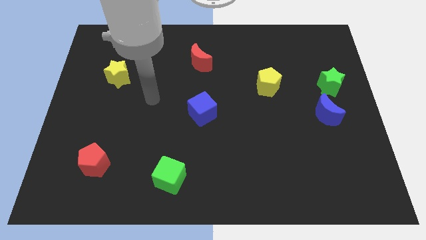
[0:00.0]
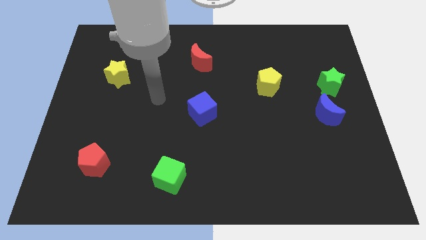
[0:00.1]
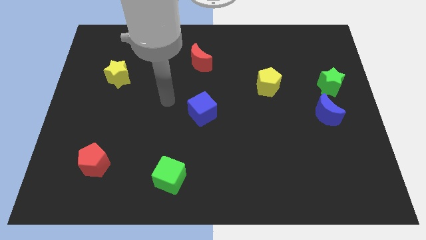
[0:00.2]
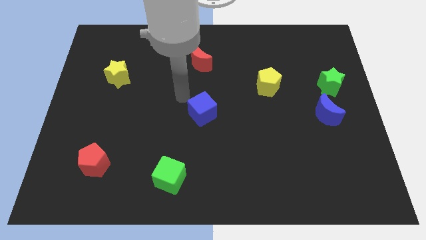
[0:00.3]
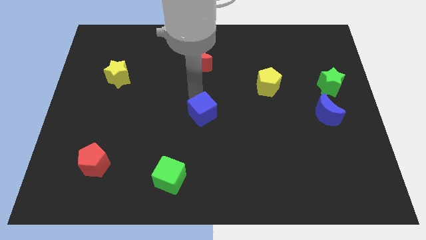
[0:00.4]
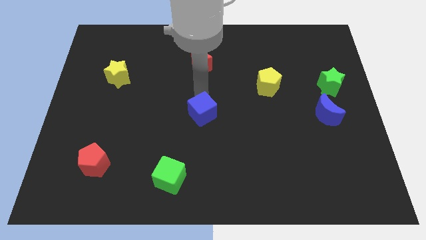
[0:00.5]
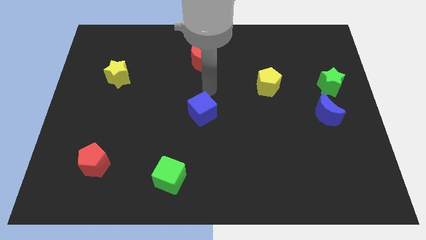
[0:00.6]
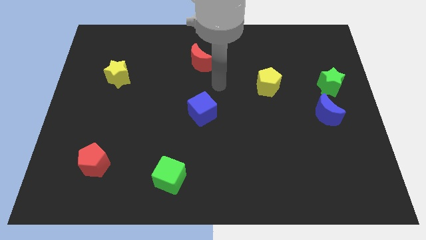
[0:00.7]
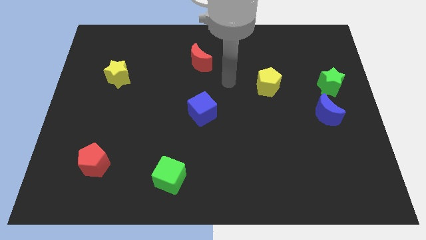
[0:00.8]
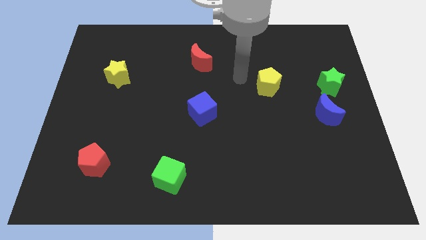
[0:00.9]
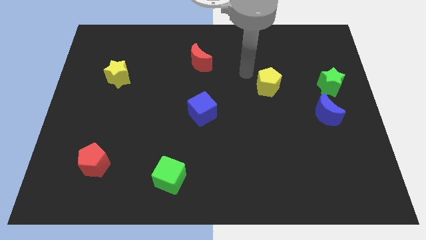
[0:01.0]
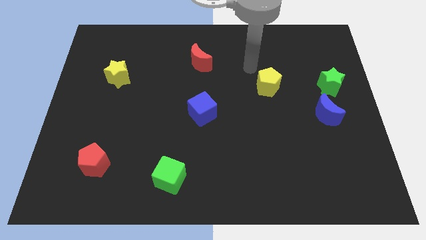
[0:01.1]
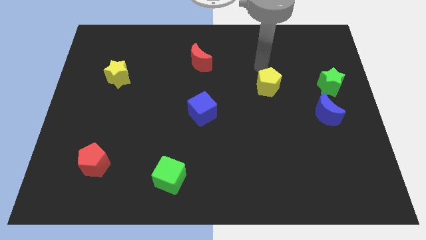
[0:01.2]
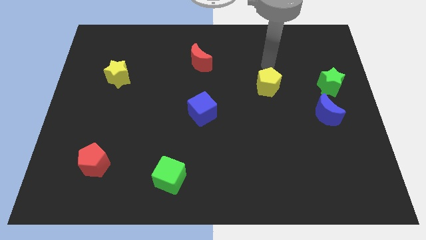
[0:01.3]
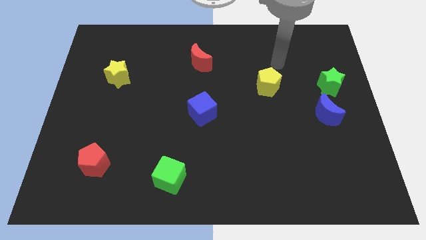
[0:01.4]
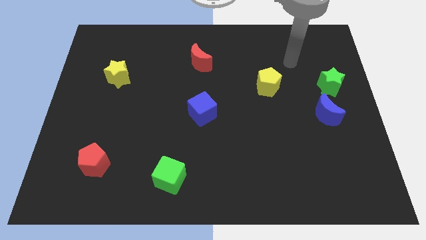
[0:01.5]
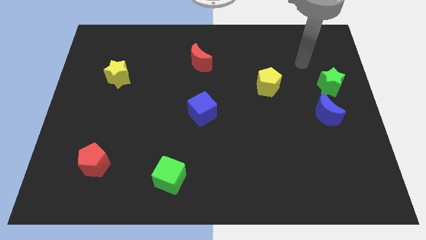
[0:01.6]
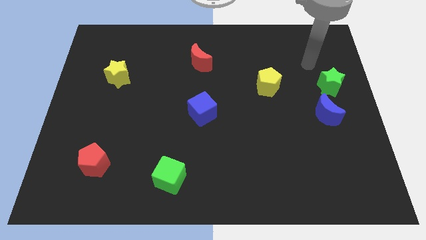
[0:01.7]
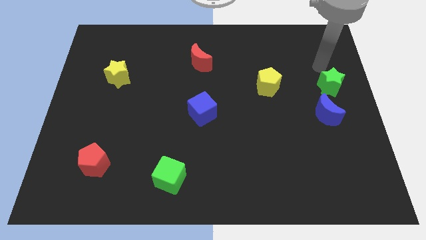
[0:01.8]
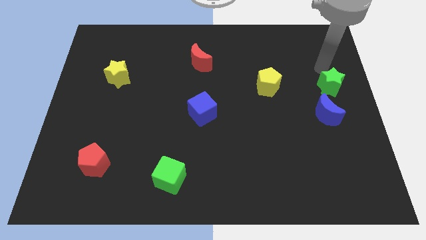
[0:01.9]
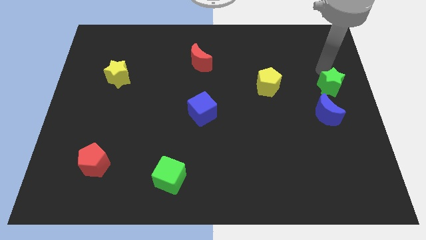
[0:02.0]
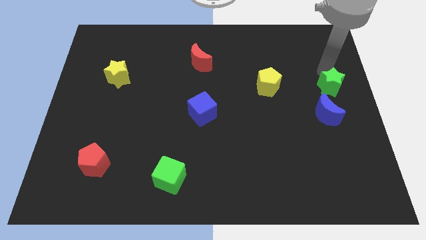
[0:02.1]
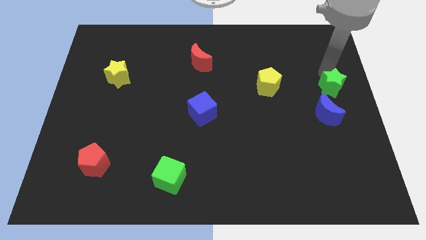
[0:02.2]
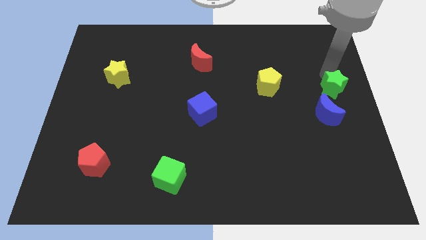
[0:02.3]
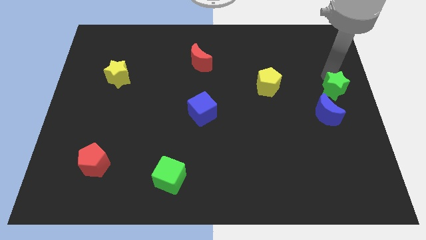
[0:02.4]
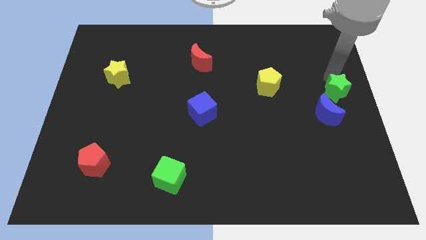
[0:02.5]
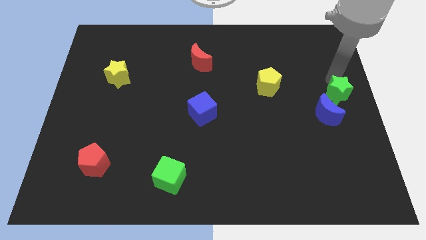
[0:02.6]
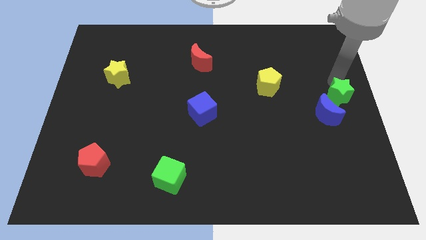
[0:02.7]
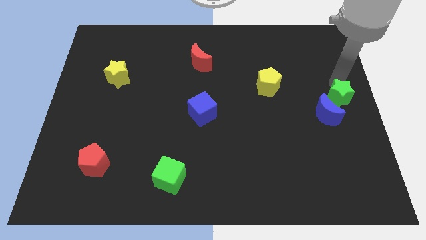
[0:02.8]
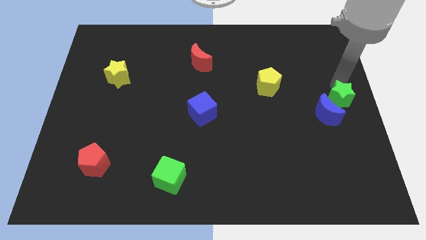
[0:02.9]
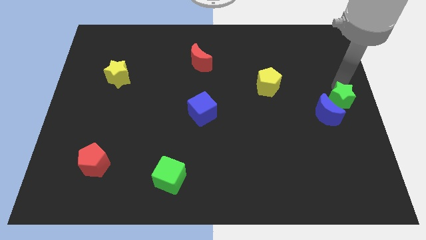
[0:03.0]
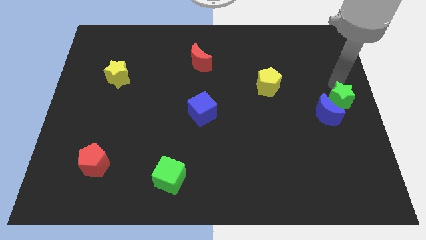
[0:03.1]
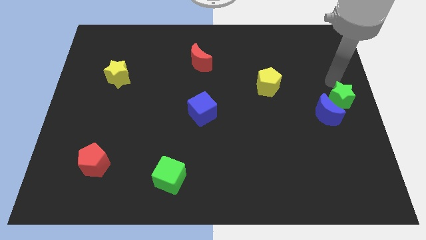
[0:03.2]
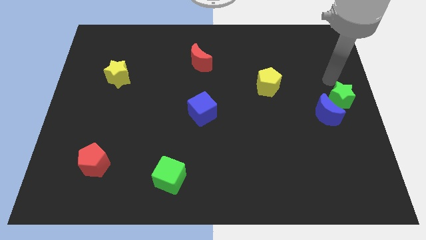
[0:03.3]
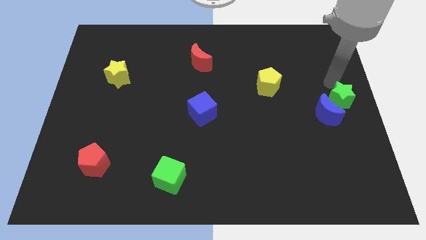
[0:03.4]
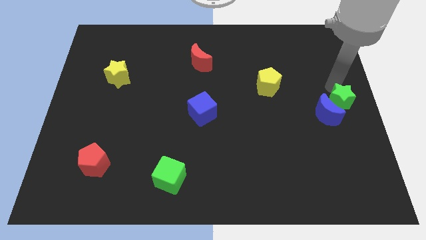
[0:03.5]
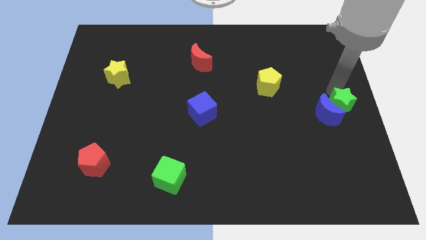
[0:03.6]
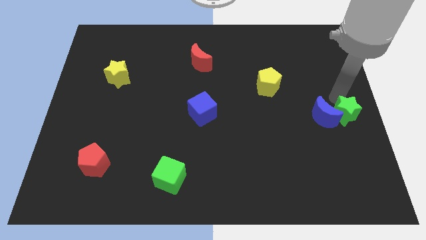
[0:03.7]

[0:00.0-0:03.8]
slide the green star down a bit

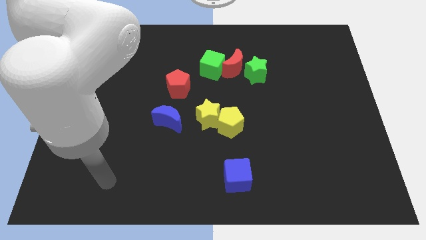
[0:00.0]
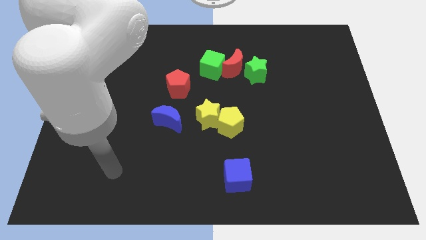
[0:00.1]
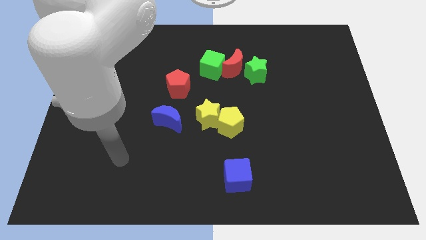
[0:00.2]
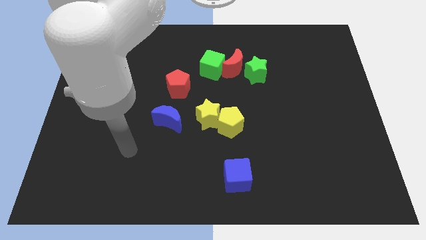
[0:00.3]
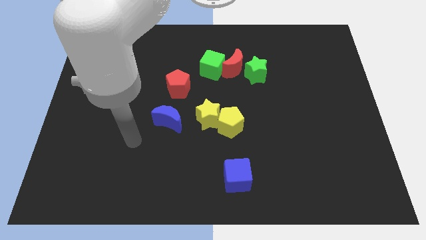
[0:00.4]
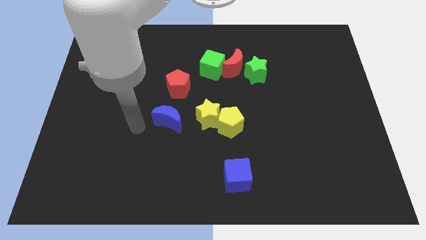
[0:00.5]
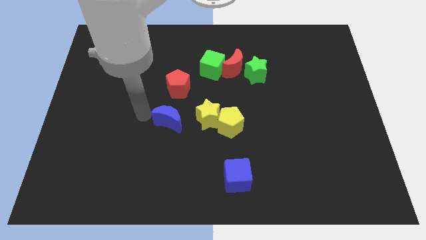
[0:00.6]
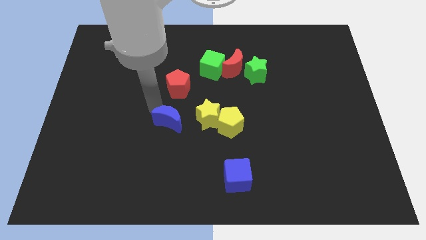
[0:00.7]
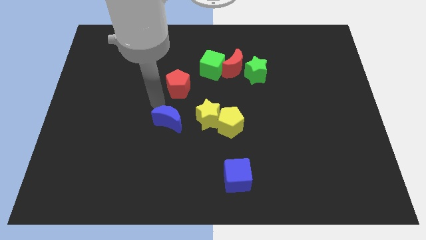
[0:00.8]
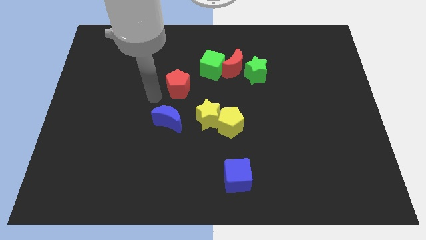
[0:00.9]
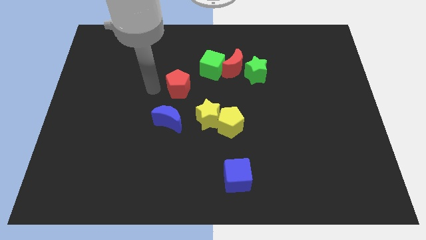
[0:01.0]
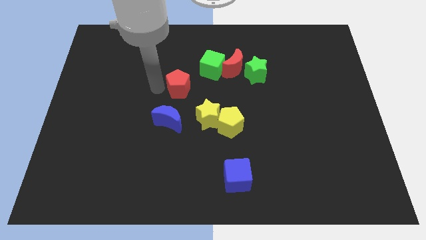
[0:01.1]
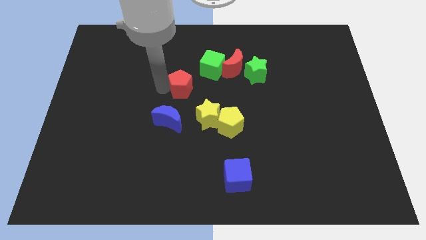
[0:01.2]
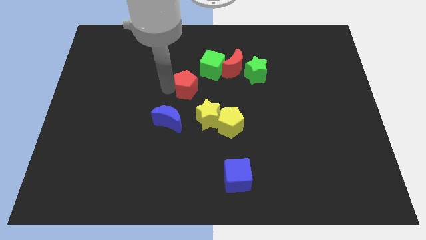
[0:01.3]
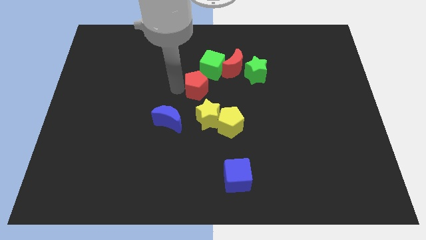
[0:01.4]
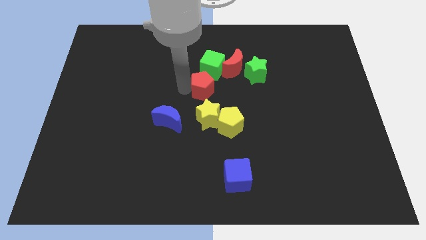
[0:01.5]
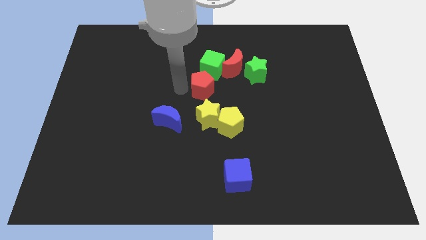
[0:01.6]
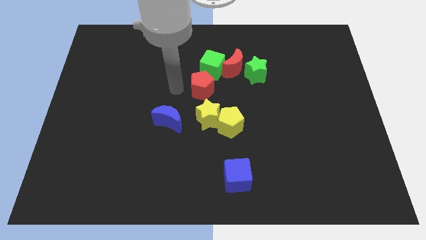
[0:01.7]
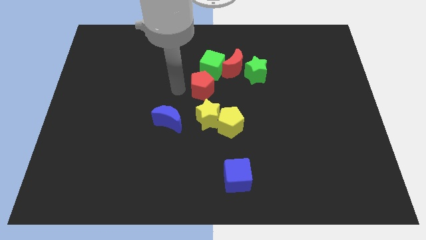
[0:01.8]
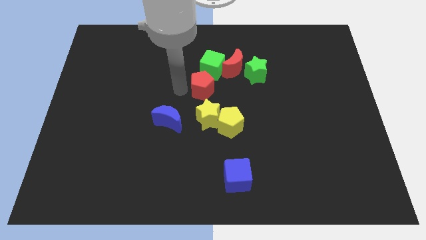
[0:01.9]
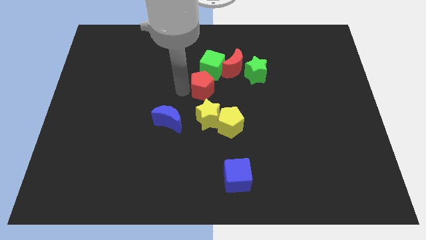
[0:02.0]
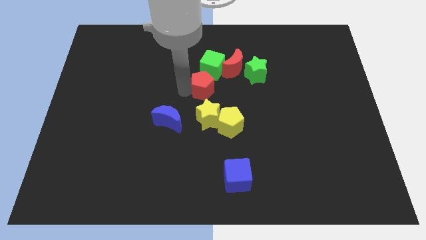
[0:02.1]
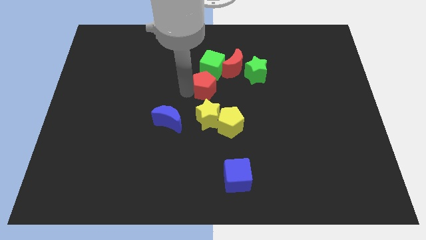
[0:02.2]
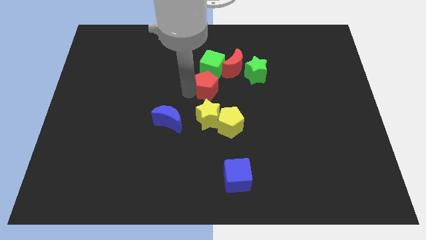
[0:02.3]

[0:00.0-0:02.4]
move the red pentagon to the right slightly

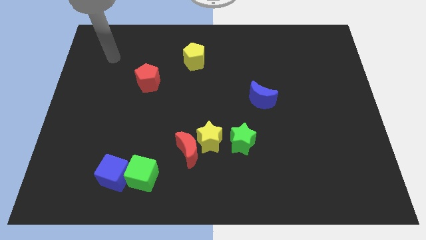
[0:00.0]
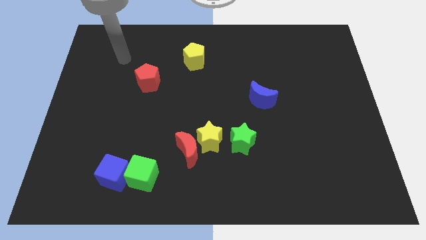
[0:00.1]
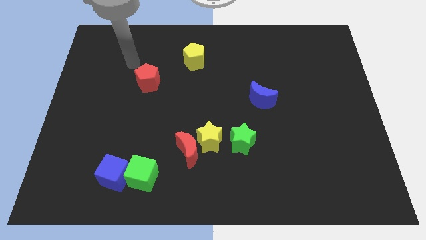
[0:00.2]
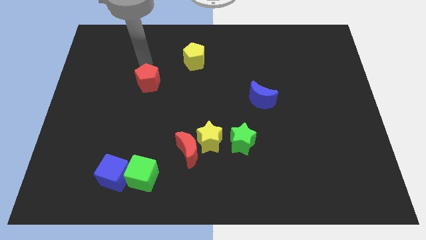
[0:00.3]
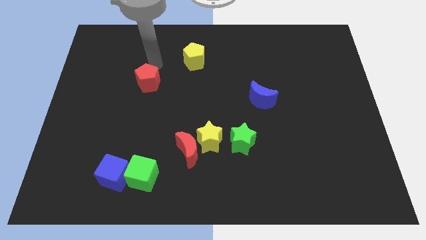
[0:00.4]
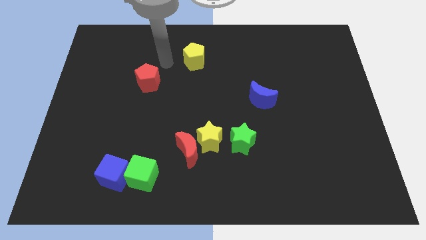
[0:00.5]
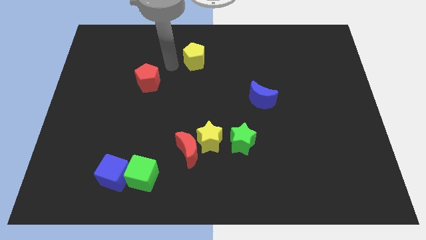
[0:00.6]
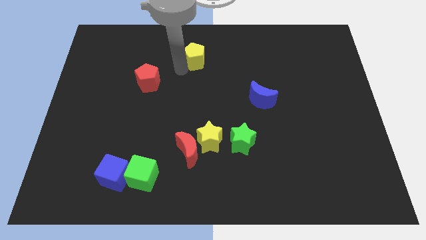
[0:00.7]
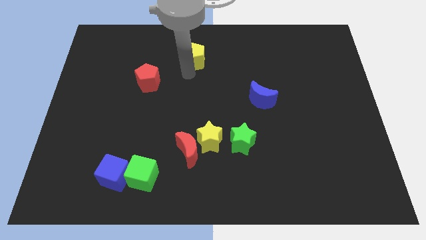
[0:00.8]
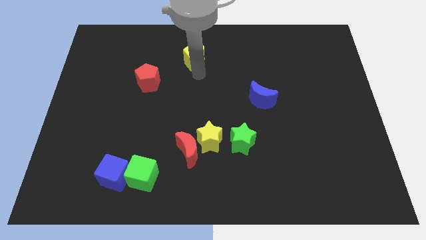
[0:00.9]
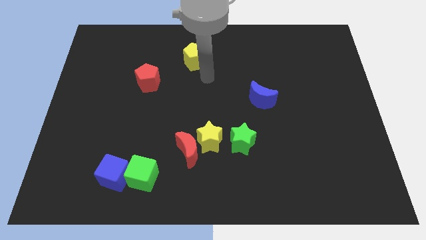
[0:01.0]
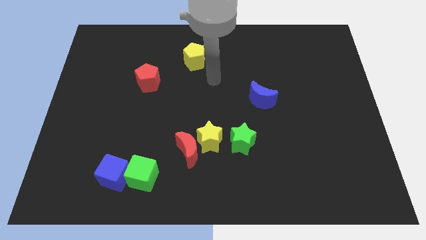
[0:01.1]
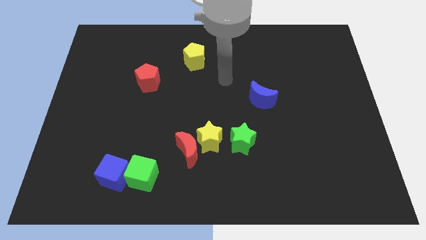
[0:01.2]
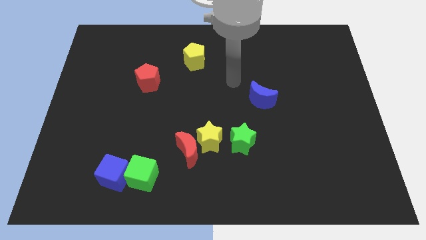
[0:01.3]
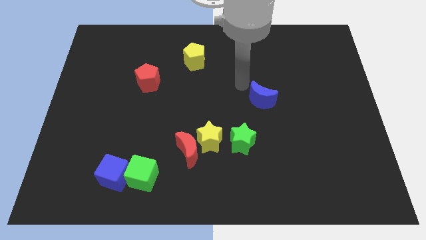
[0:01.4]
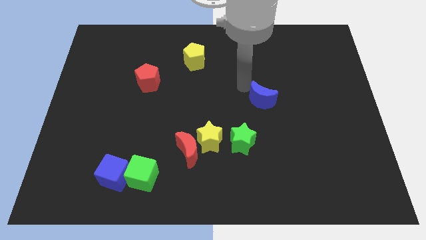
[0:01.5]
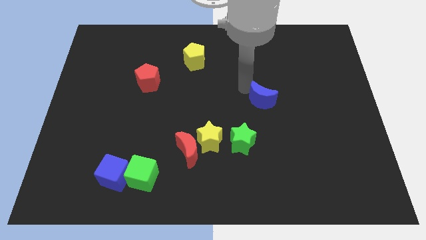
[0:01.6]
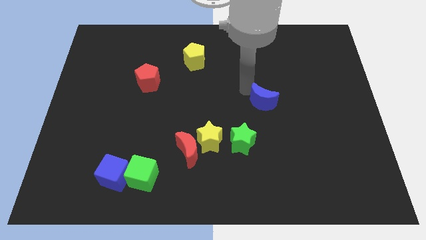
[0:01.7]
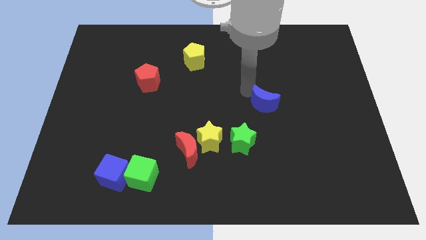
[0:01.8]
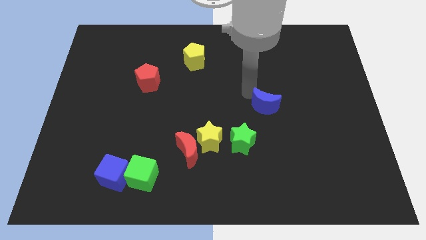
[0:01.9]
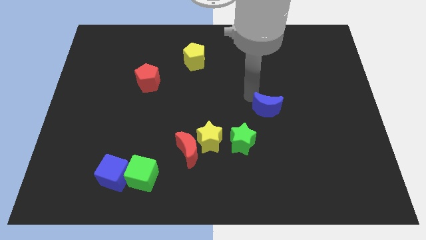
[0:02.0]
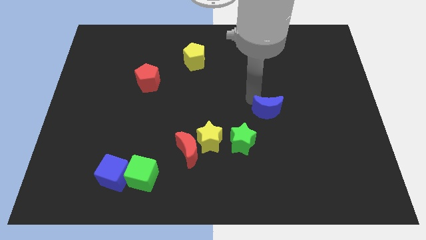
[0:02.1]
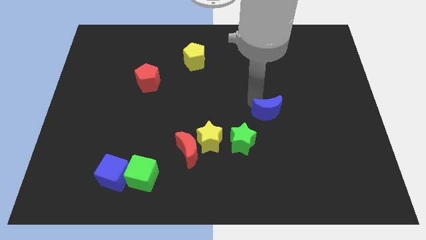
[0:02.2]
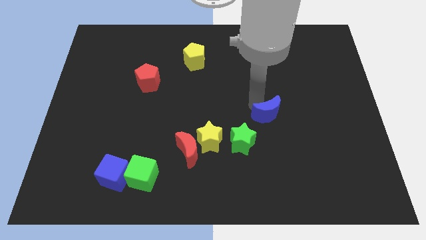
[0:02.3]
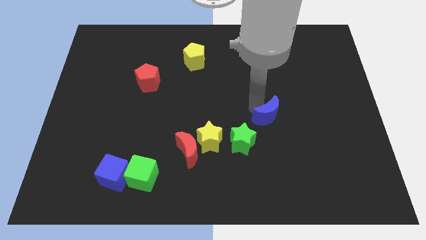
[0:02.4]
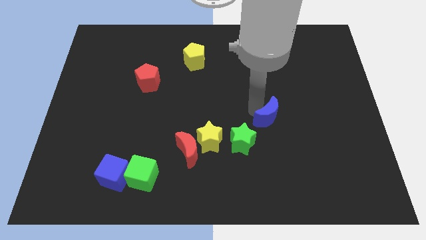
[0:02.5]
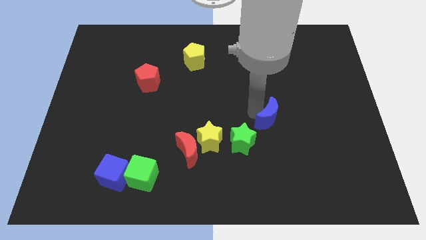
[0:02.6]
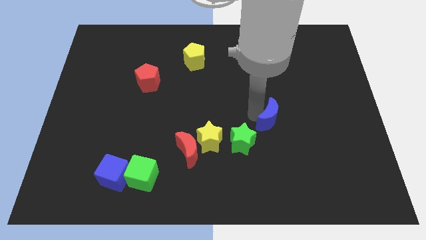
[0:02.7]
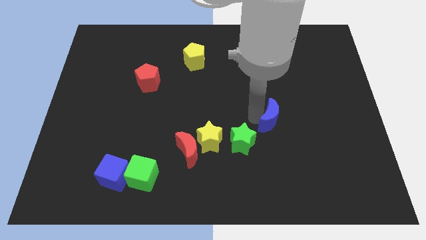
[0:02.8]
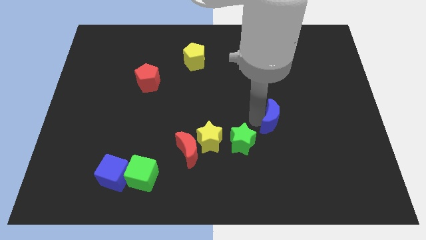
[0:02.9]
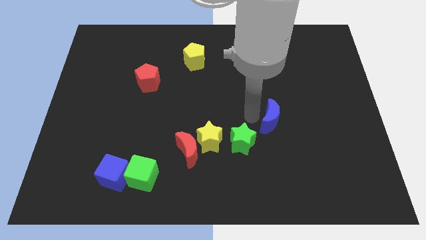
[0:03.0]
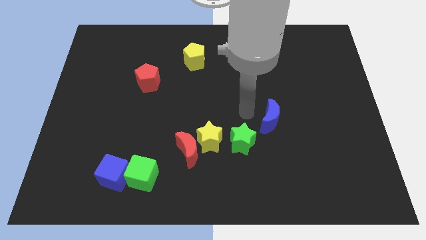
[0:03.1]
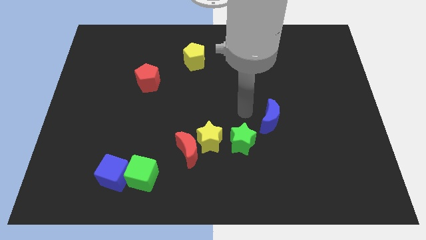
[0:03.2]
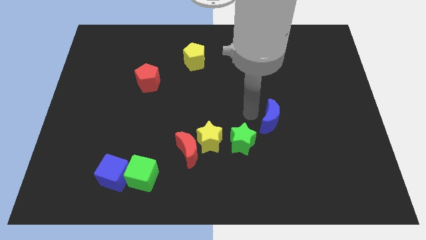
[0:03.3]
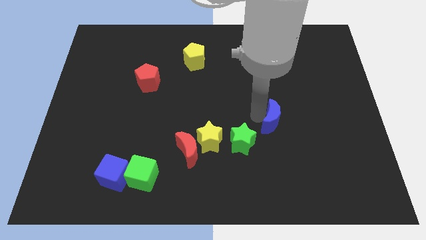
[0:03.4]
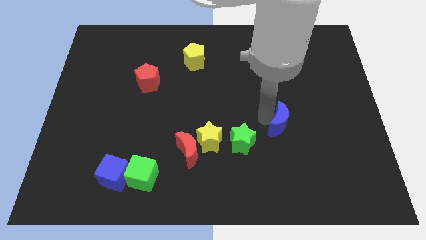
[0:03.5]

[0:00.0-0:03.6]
slightly move the blue moon down and right diagonally
